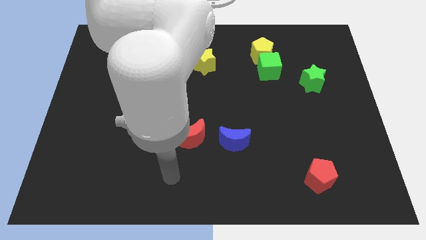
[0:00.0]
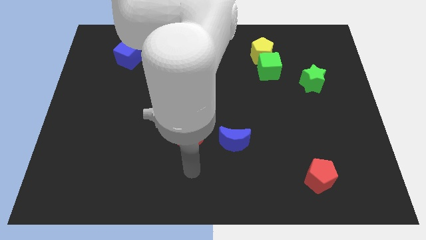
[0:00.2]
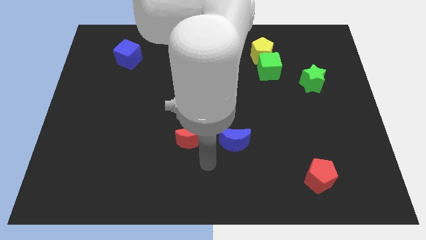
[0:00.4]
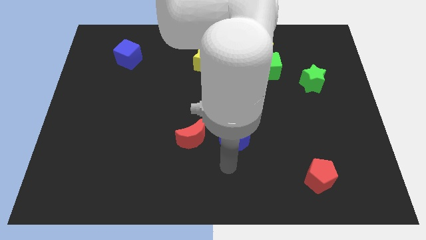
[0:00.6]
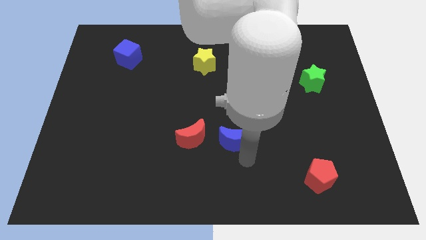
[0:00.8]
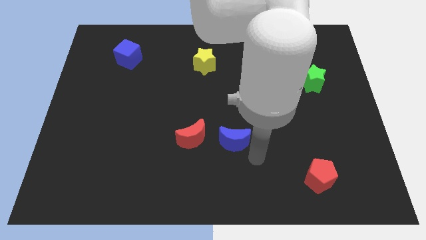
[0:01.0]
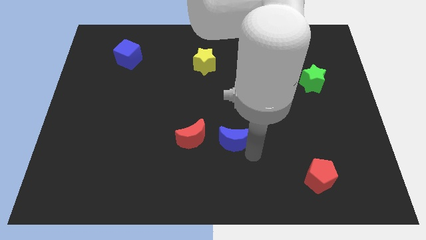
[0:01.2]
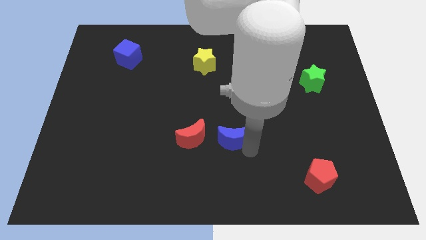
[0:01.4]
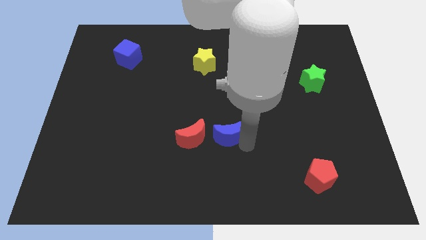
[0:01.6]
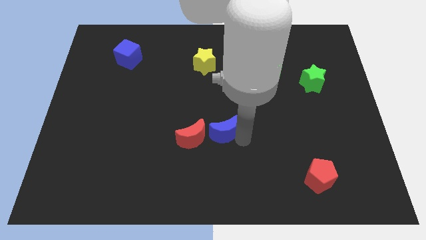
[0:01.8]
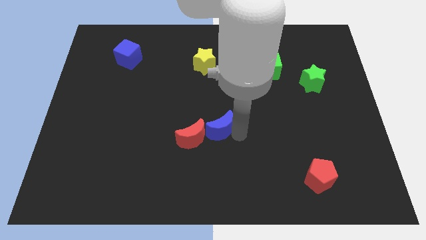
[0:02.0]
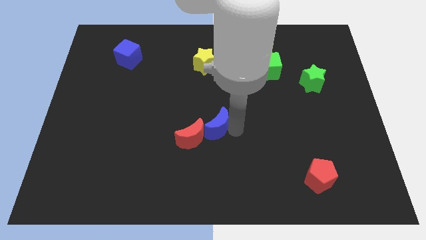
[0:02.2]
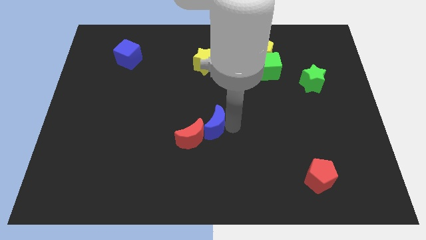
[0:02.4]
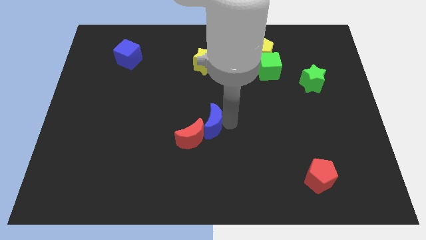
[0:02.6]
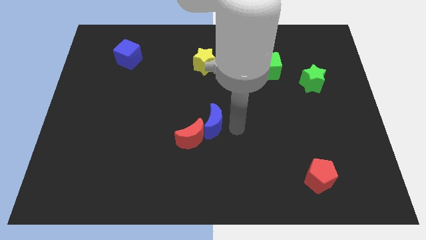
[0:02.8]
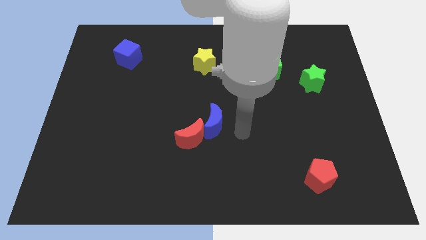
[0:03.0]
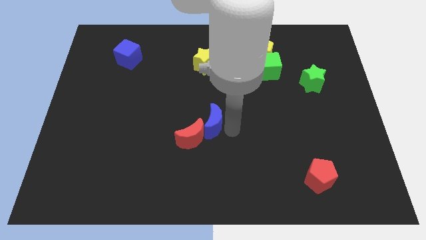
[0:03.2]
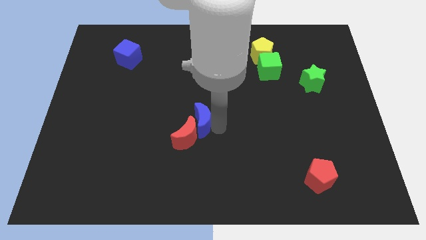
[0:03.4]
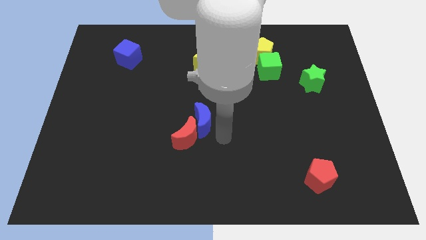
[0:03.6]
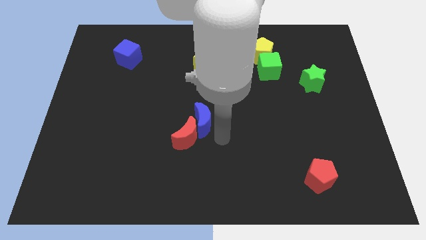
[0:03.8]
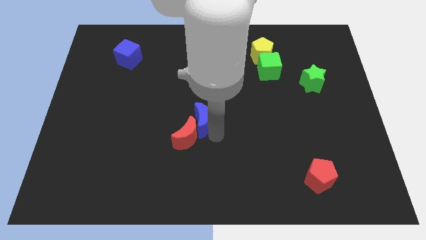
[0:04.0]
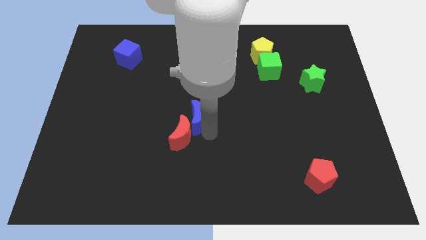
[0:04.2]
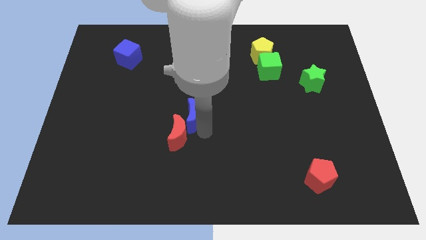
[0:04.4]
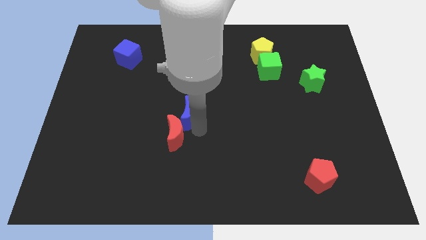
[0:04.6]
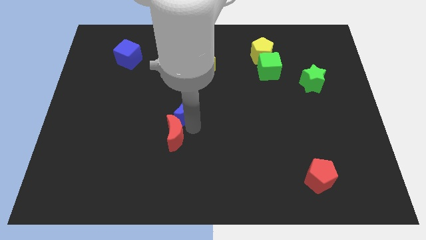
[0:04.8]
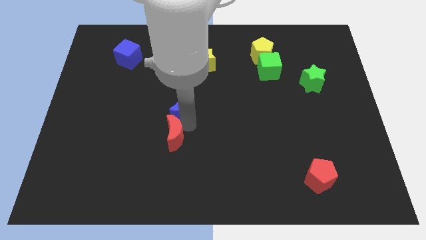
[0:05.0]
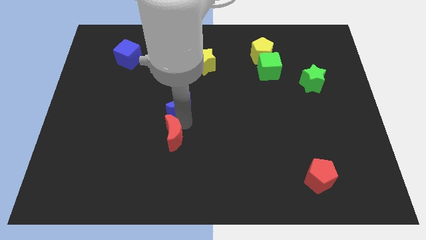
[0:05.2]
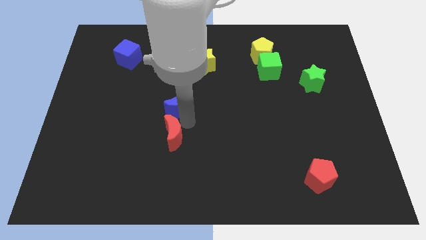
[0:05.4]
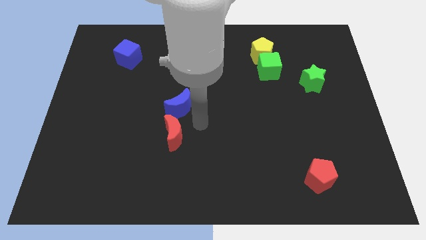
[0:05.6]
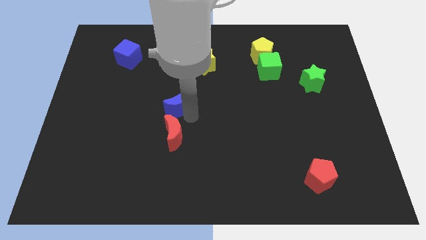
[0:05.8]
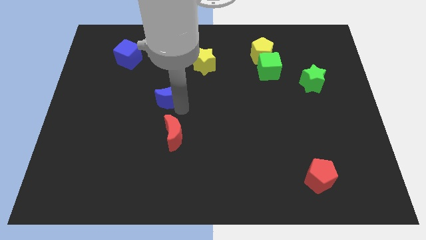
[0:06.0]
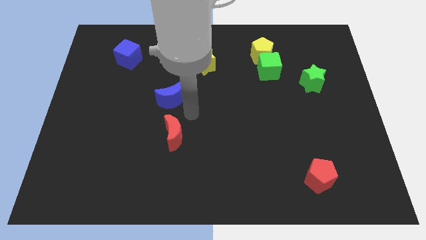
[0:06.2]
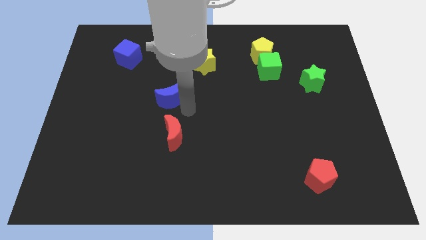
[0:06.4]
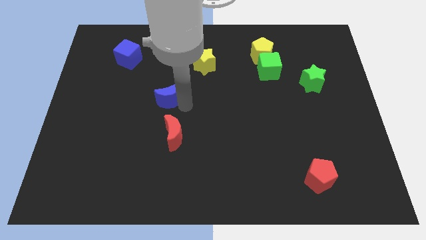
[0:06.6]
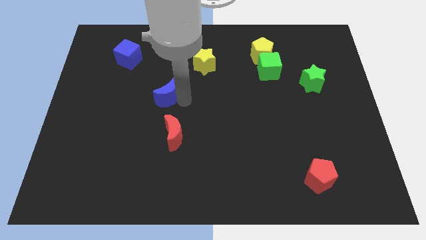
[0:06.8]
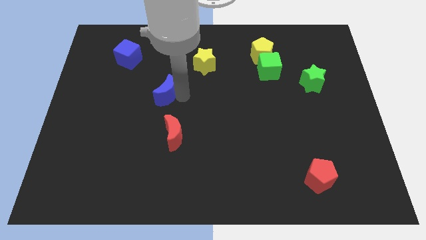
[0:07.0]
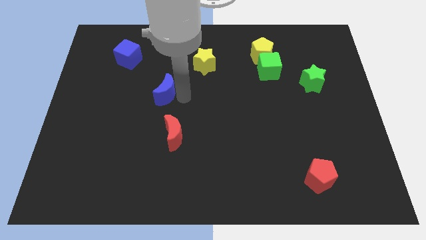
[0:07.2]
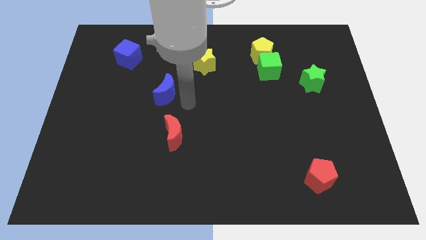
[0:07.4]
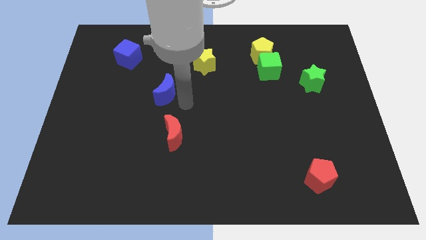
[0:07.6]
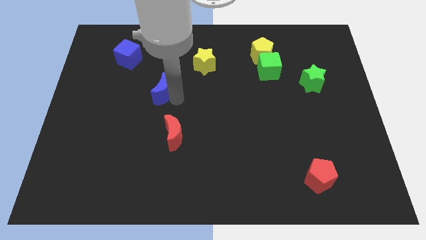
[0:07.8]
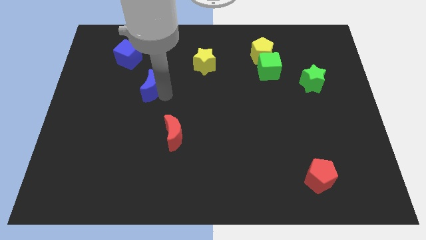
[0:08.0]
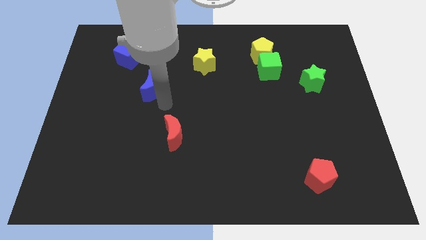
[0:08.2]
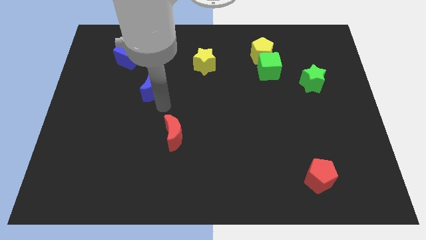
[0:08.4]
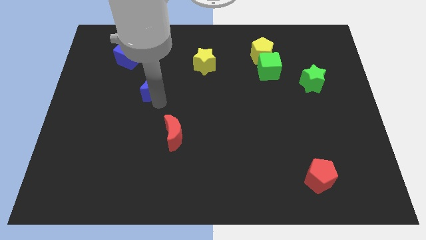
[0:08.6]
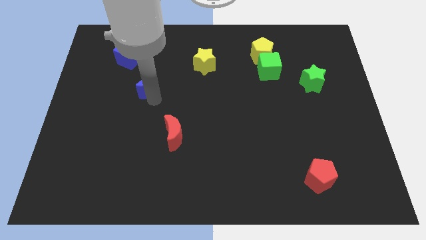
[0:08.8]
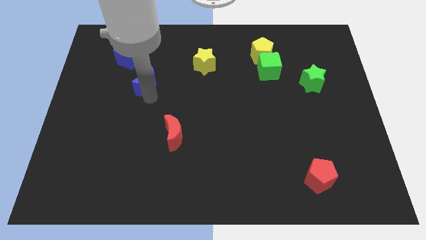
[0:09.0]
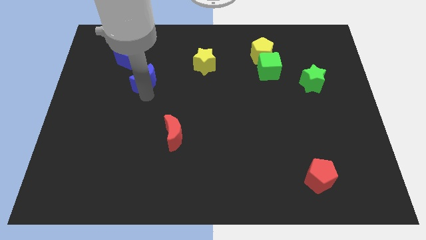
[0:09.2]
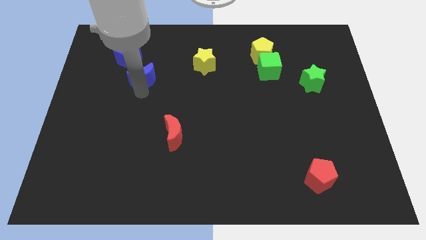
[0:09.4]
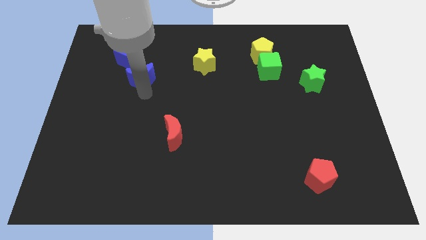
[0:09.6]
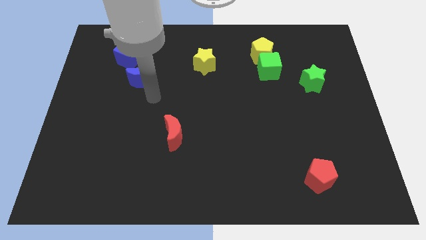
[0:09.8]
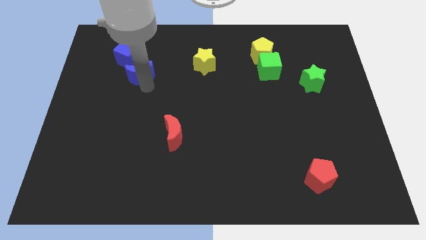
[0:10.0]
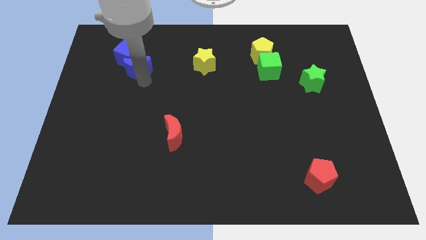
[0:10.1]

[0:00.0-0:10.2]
push the blue moon next to the blue cube

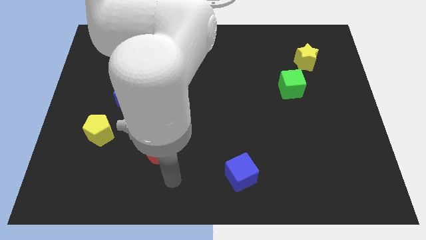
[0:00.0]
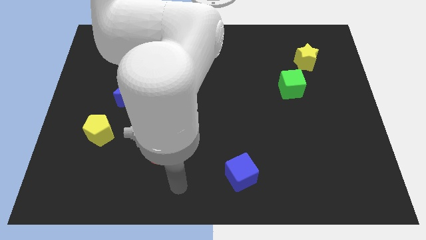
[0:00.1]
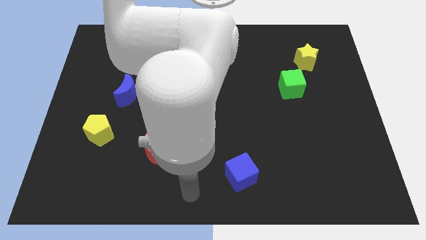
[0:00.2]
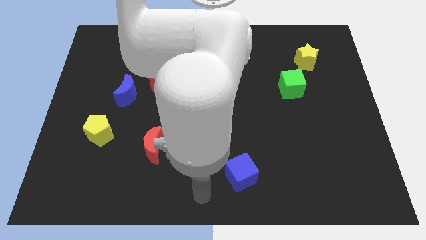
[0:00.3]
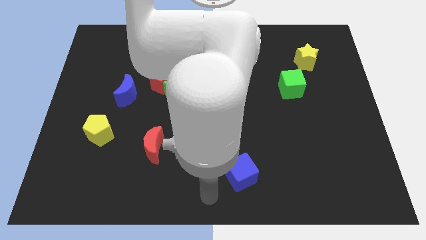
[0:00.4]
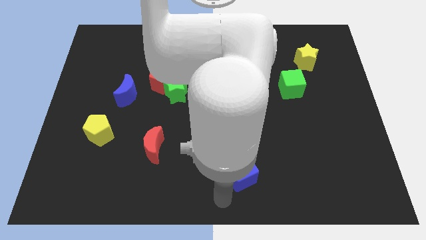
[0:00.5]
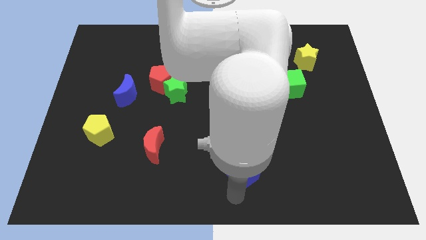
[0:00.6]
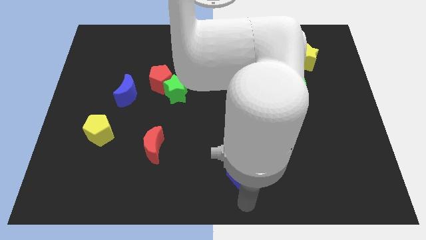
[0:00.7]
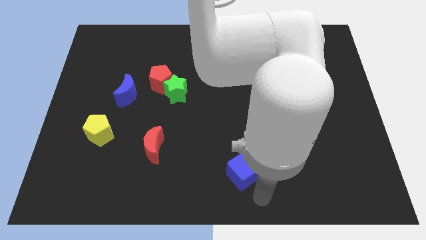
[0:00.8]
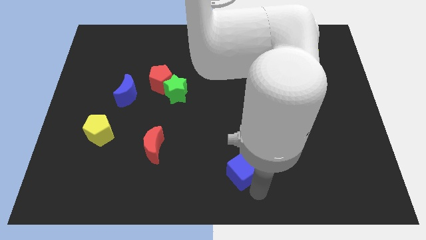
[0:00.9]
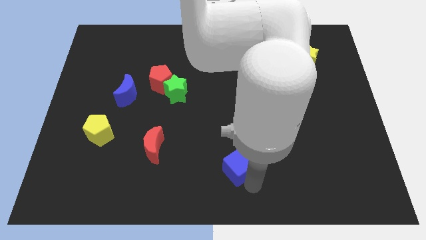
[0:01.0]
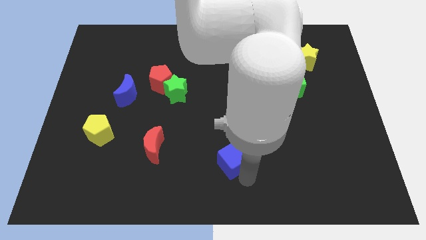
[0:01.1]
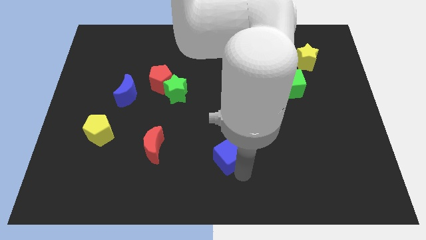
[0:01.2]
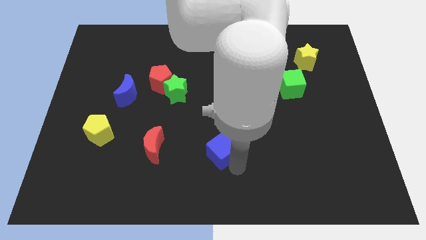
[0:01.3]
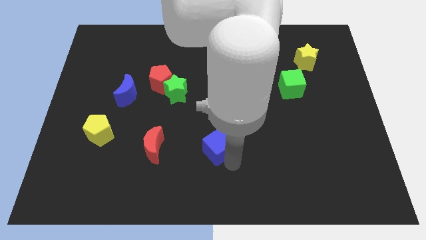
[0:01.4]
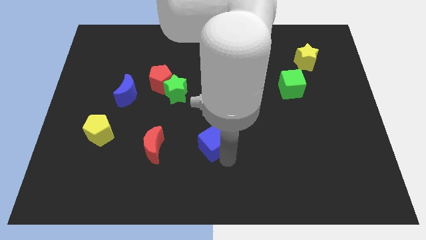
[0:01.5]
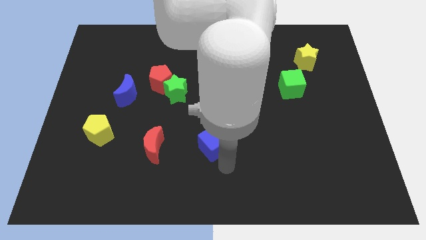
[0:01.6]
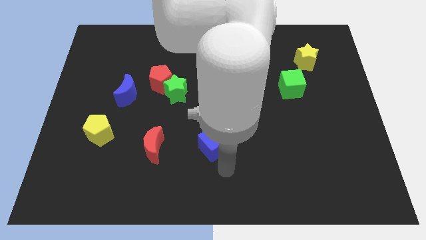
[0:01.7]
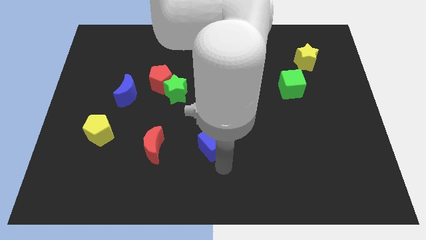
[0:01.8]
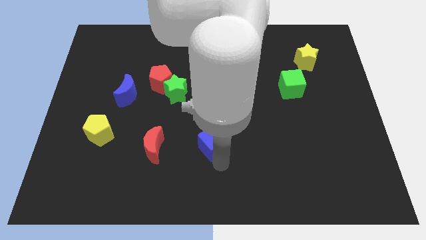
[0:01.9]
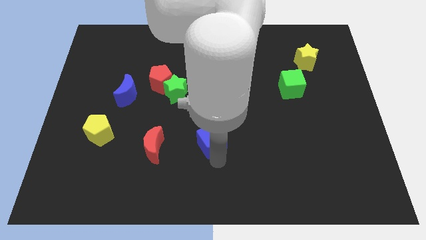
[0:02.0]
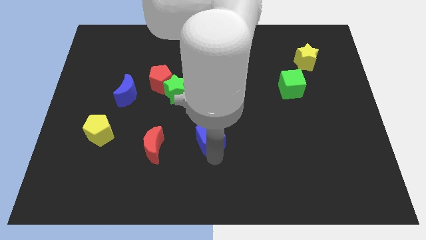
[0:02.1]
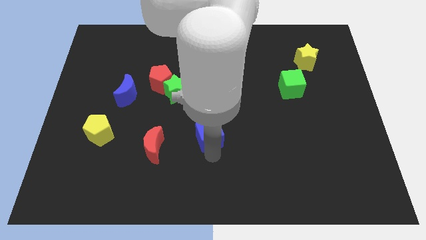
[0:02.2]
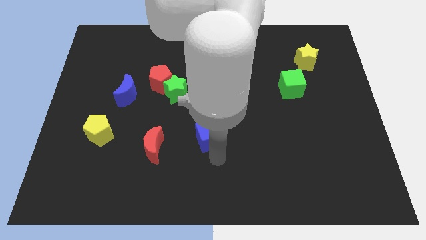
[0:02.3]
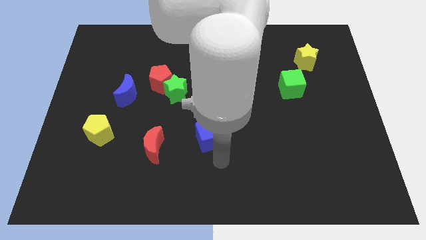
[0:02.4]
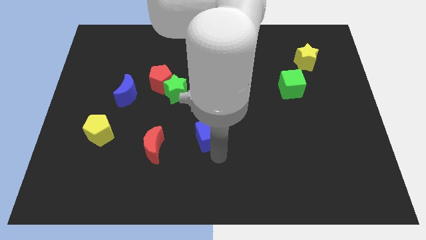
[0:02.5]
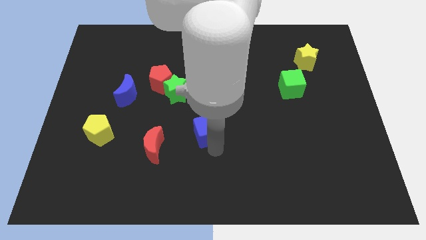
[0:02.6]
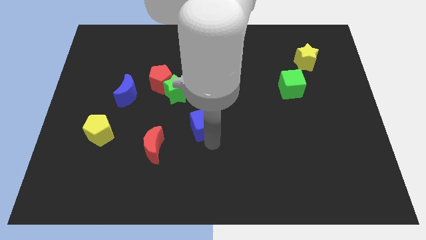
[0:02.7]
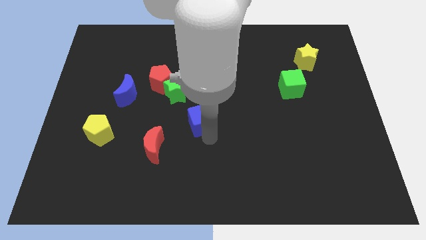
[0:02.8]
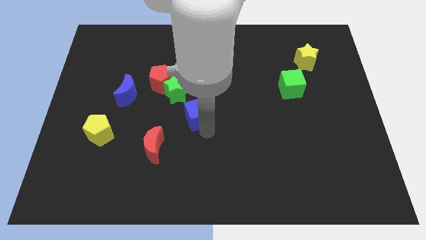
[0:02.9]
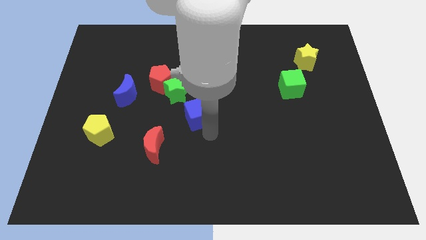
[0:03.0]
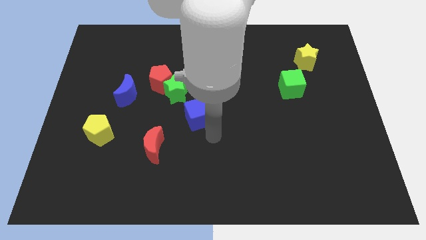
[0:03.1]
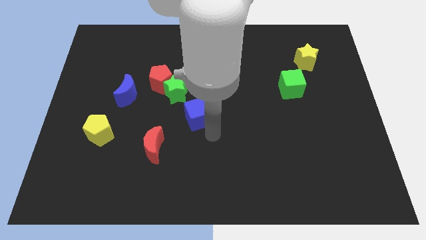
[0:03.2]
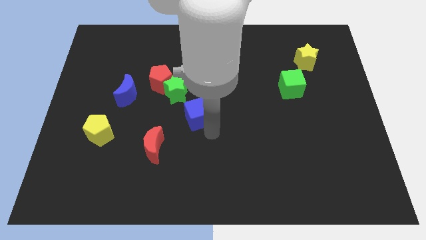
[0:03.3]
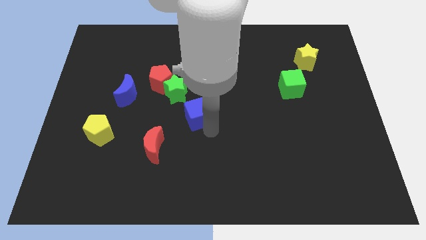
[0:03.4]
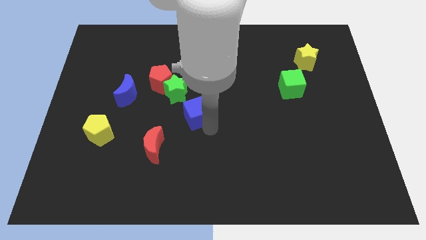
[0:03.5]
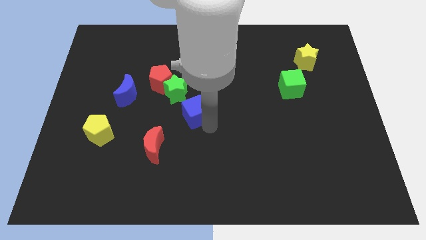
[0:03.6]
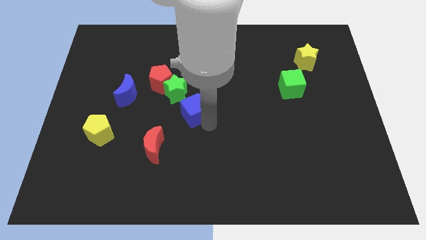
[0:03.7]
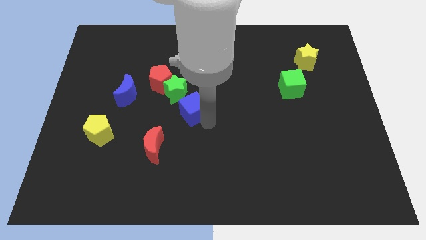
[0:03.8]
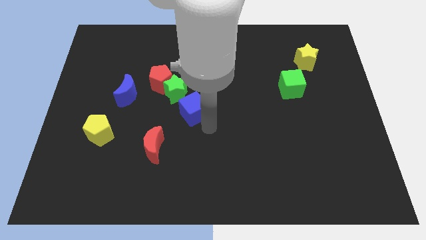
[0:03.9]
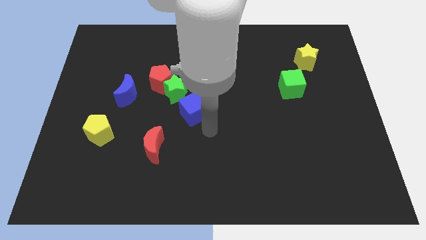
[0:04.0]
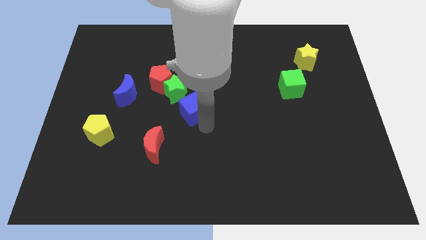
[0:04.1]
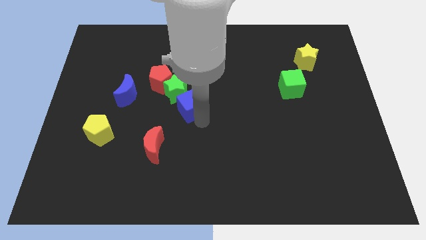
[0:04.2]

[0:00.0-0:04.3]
push the blue cube towards the green star
